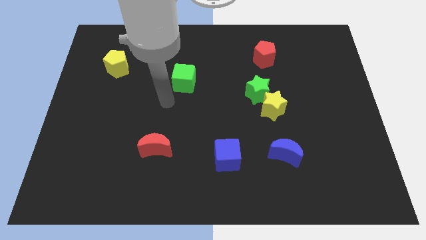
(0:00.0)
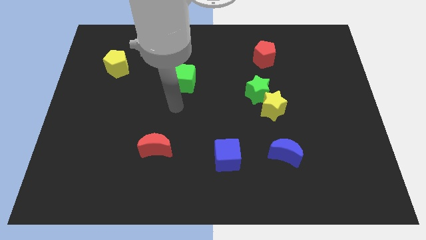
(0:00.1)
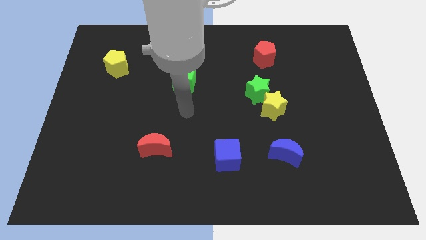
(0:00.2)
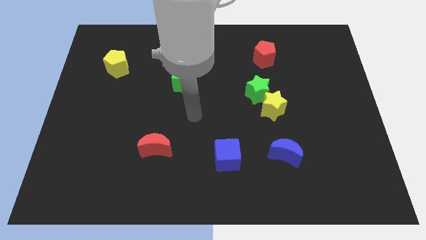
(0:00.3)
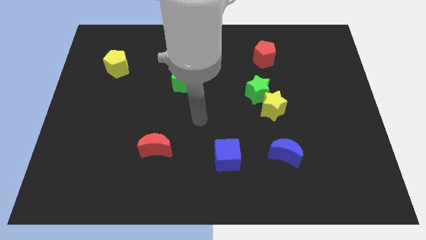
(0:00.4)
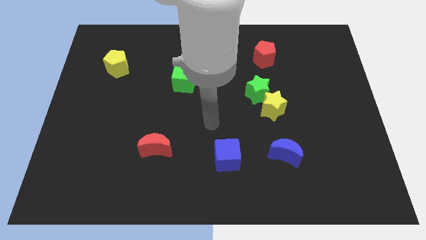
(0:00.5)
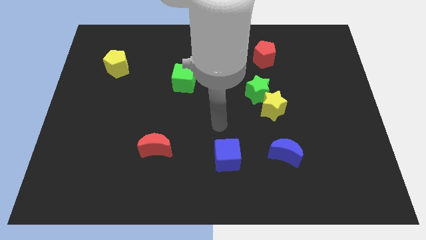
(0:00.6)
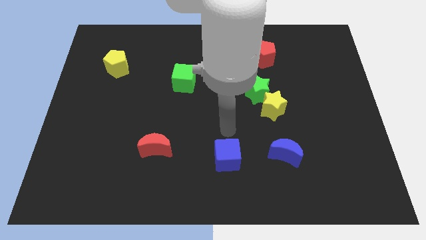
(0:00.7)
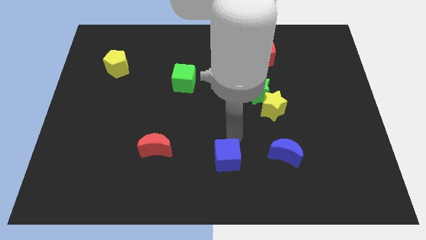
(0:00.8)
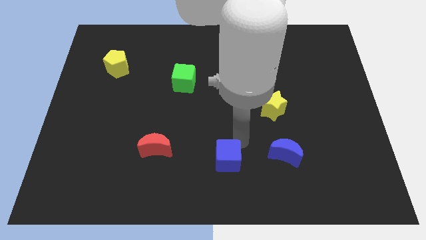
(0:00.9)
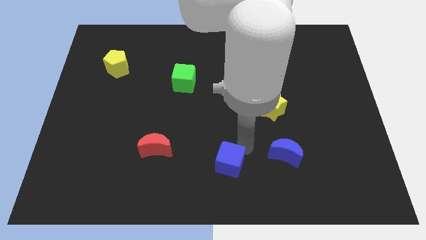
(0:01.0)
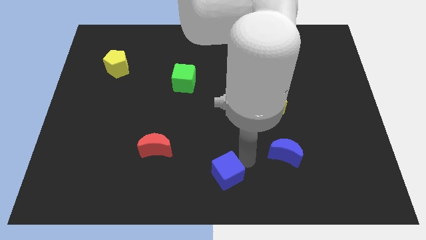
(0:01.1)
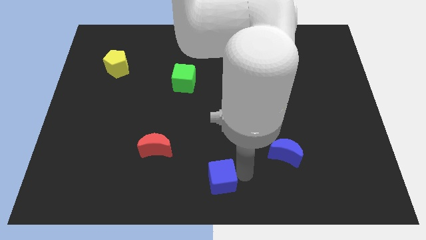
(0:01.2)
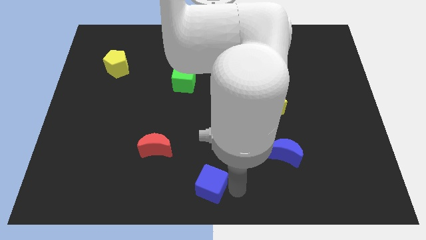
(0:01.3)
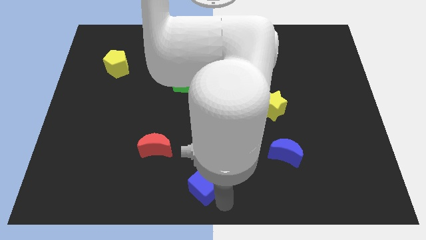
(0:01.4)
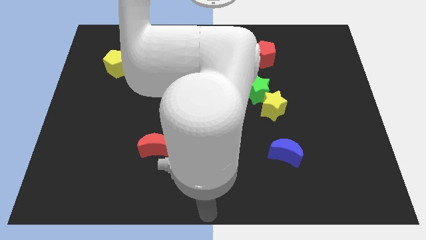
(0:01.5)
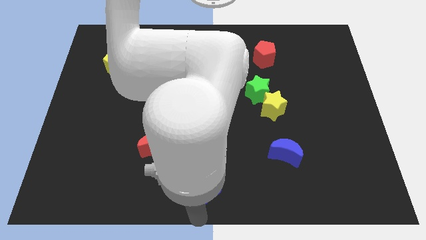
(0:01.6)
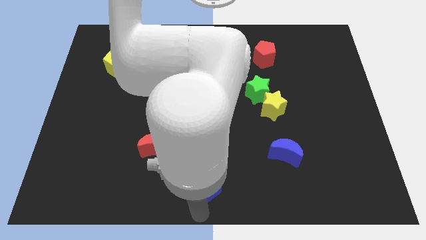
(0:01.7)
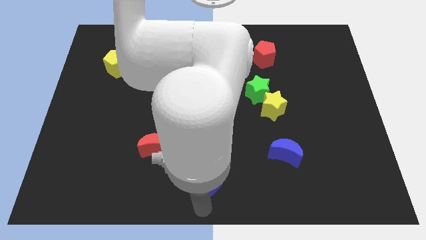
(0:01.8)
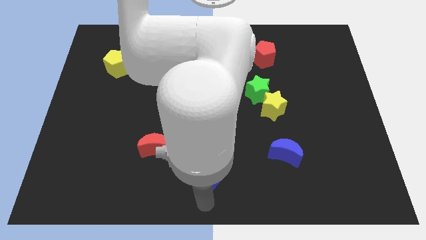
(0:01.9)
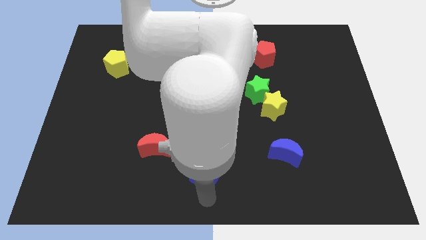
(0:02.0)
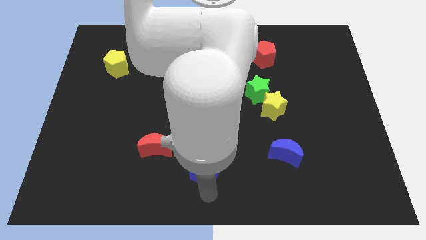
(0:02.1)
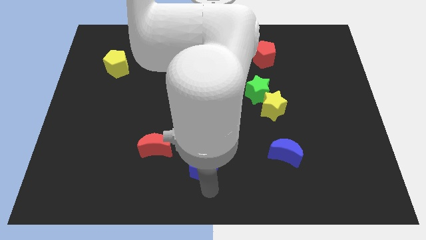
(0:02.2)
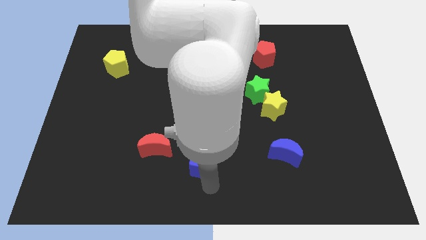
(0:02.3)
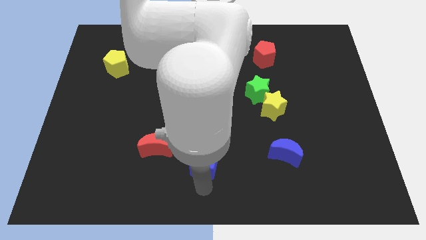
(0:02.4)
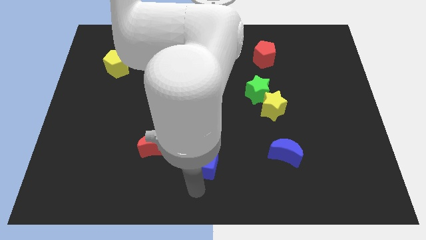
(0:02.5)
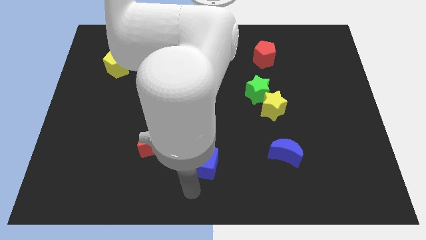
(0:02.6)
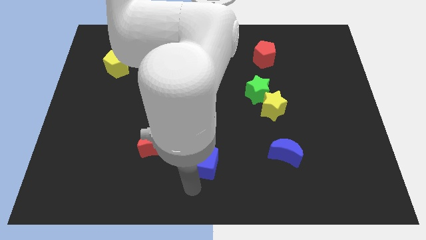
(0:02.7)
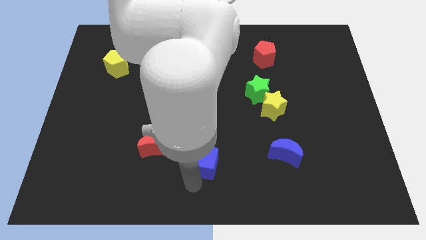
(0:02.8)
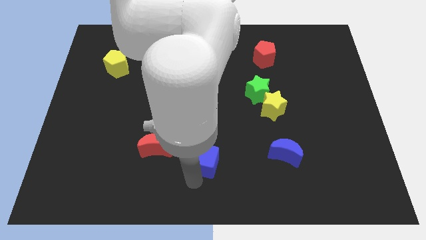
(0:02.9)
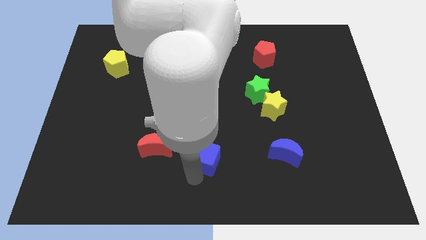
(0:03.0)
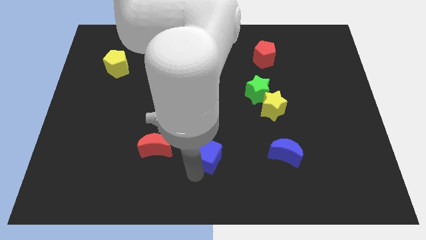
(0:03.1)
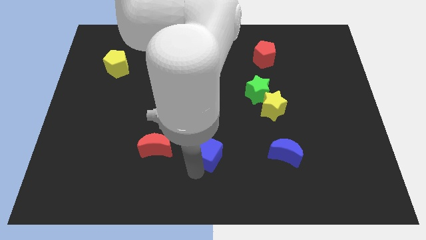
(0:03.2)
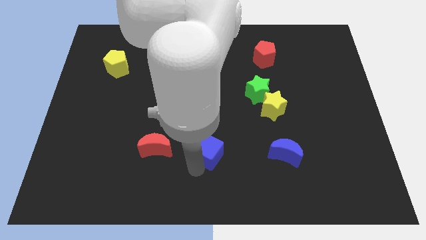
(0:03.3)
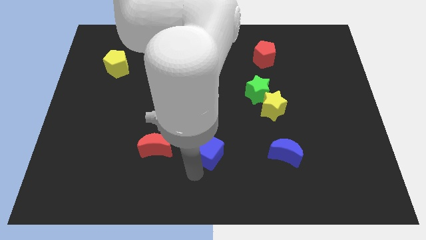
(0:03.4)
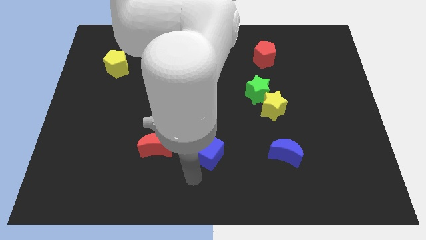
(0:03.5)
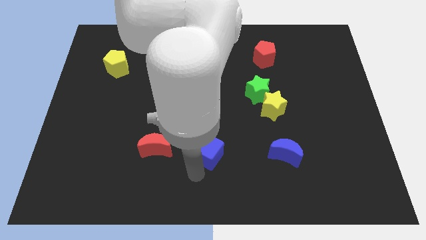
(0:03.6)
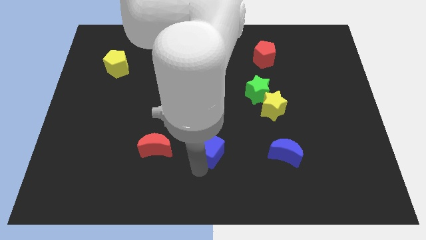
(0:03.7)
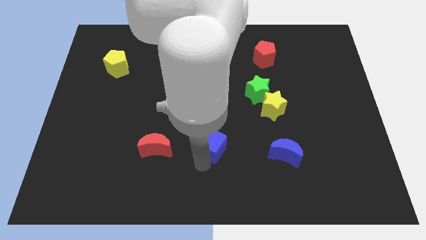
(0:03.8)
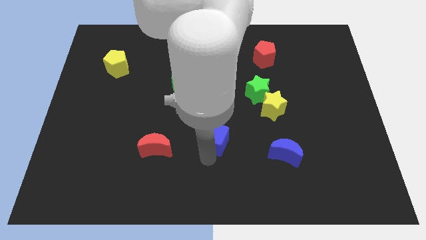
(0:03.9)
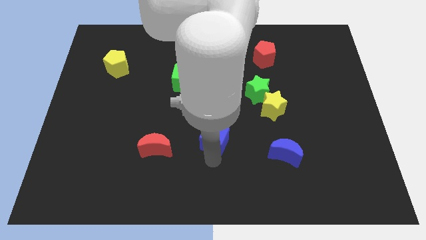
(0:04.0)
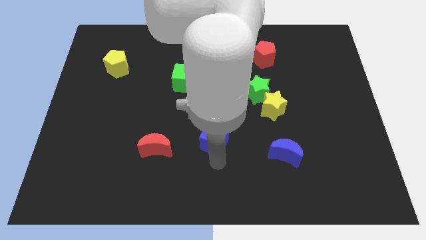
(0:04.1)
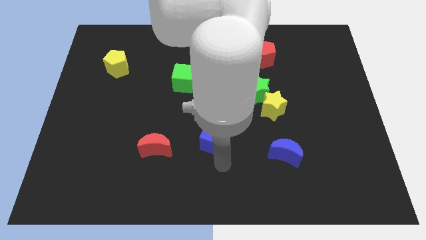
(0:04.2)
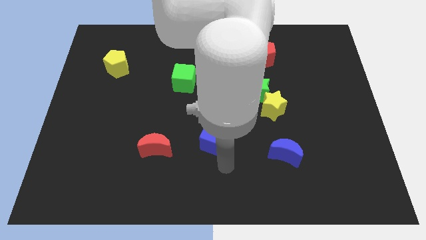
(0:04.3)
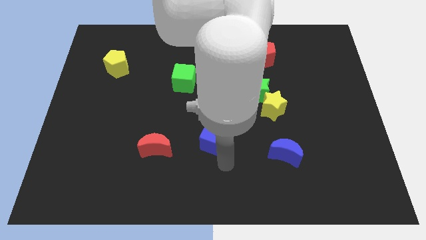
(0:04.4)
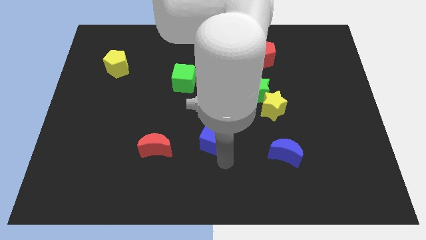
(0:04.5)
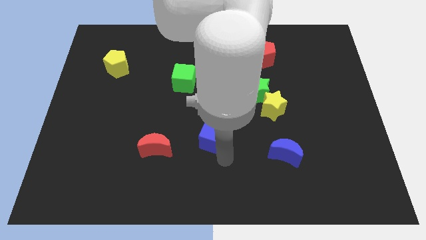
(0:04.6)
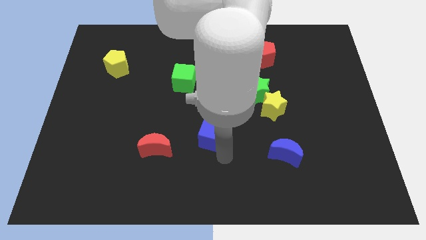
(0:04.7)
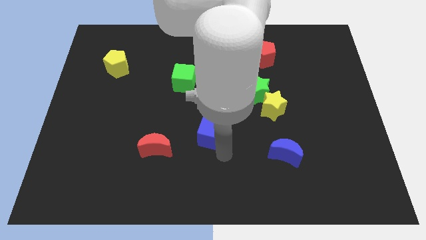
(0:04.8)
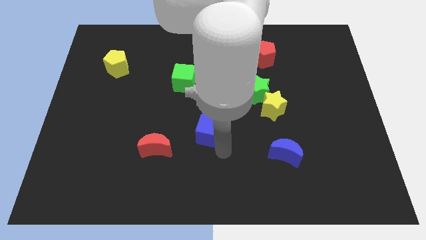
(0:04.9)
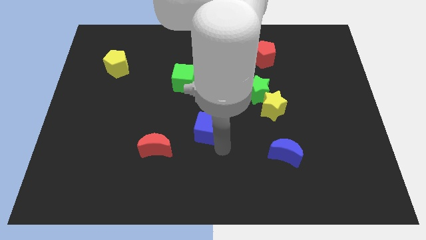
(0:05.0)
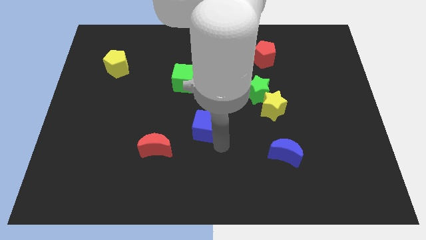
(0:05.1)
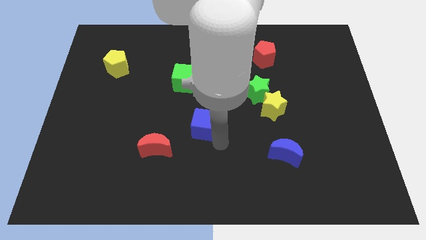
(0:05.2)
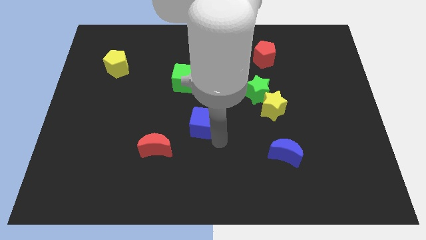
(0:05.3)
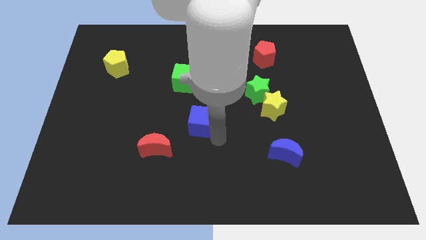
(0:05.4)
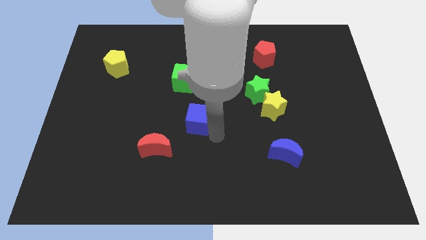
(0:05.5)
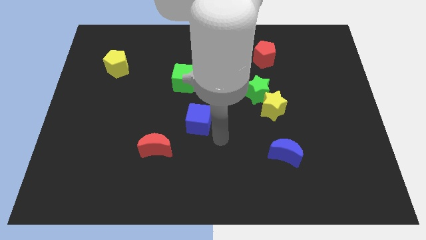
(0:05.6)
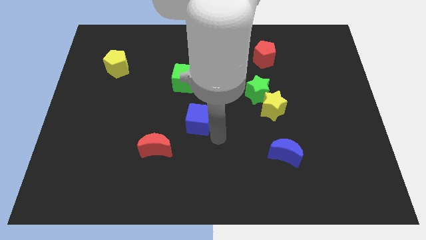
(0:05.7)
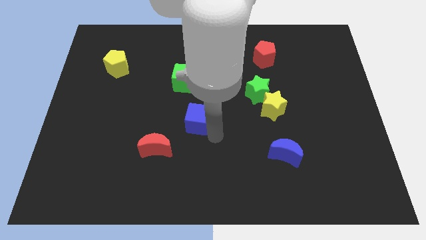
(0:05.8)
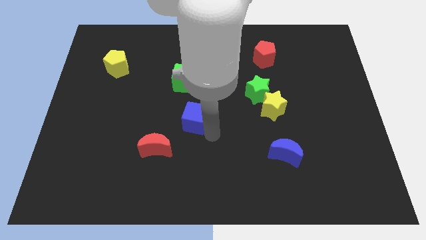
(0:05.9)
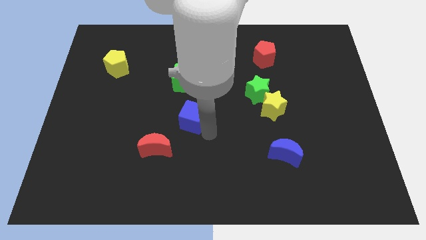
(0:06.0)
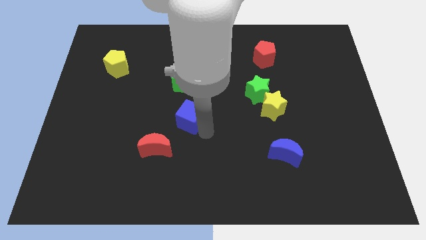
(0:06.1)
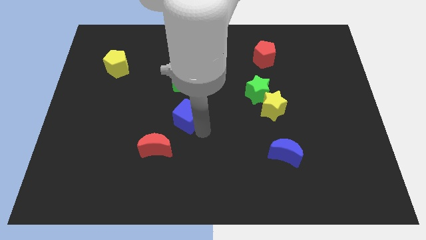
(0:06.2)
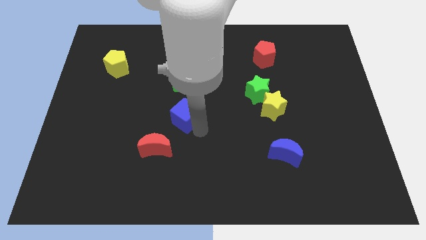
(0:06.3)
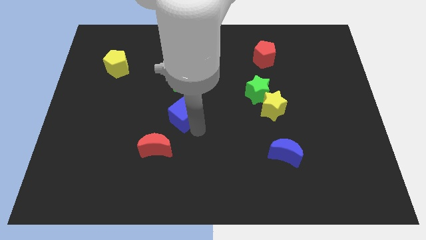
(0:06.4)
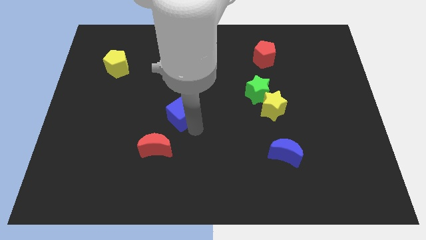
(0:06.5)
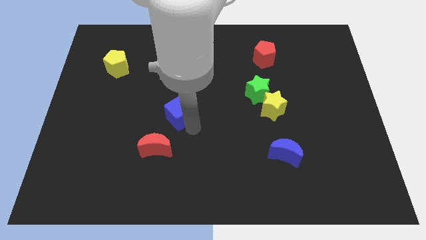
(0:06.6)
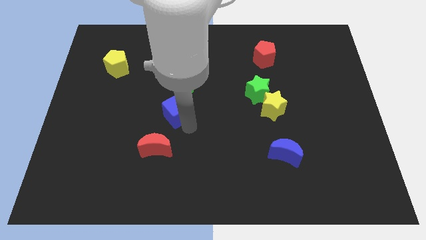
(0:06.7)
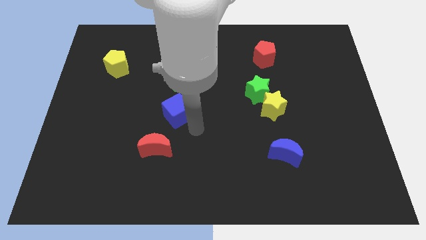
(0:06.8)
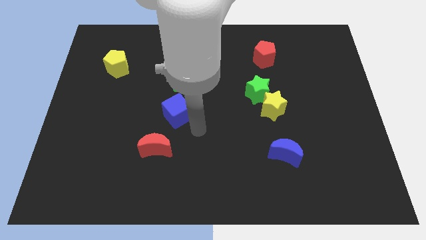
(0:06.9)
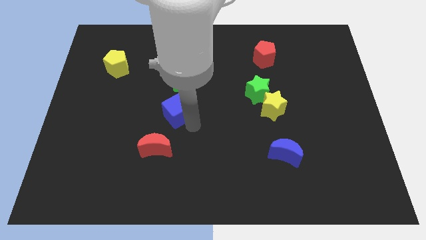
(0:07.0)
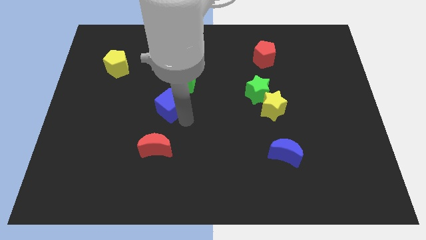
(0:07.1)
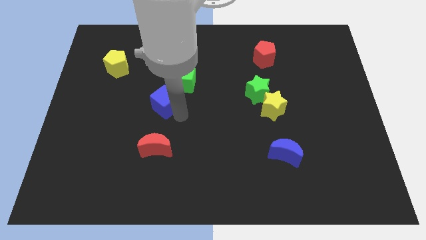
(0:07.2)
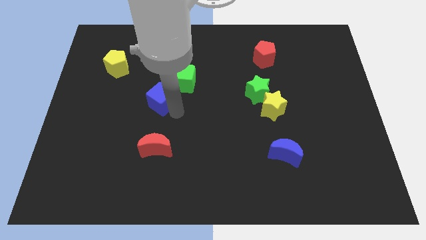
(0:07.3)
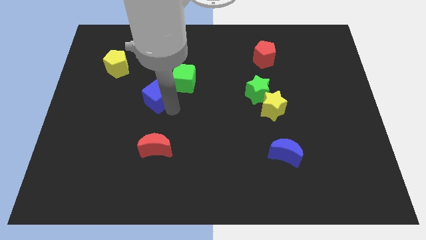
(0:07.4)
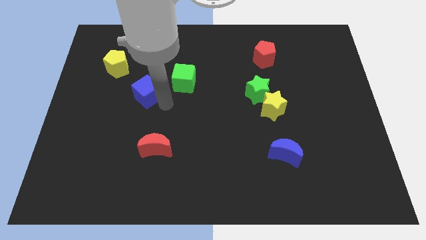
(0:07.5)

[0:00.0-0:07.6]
push the blue cube to the bottom right side of the yellow pentagon
